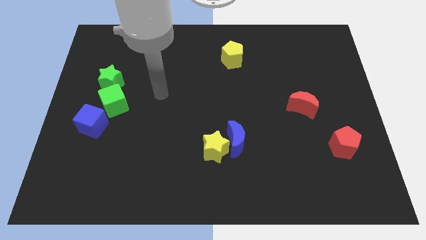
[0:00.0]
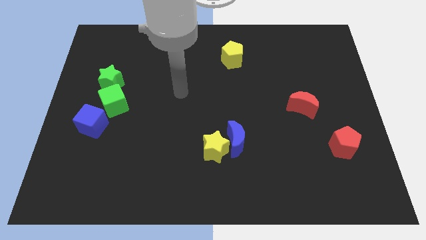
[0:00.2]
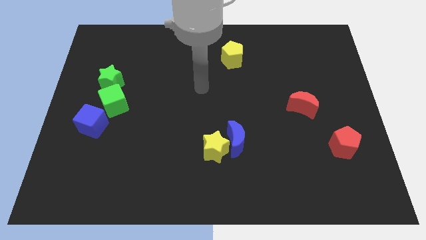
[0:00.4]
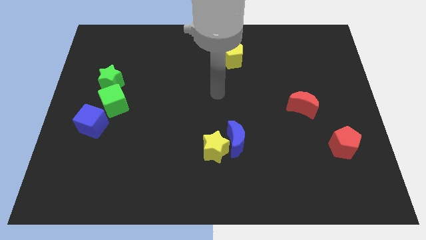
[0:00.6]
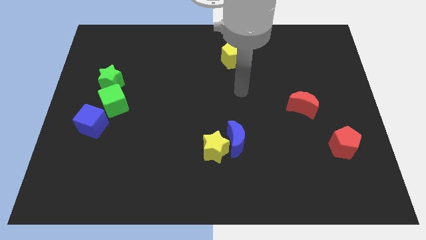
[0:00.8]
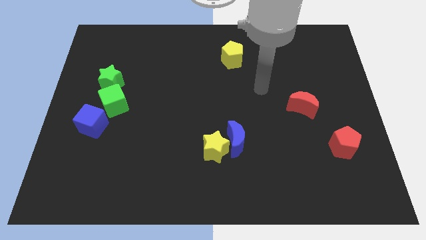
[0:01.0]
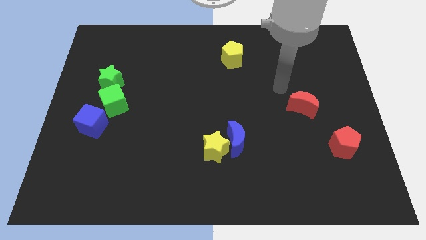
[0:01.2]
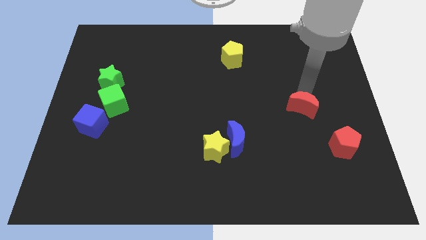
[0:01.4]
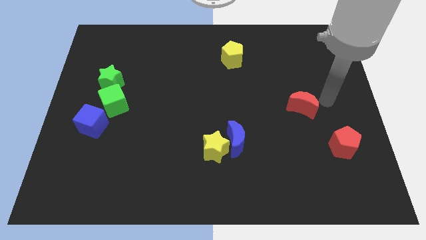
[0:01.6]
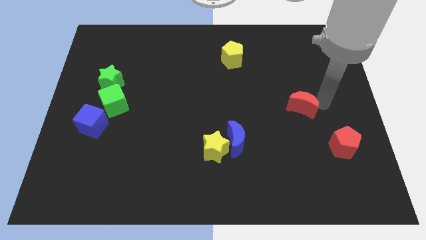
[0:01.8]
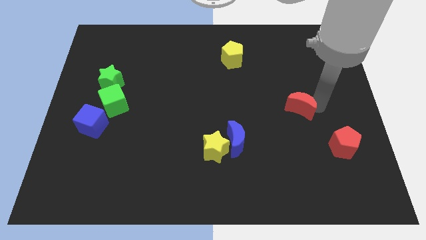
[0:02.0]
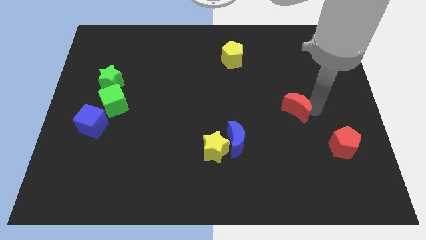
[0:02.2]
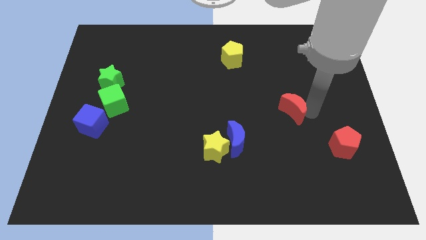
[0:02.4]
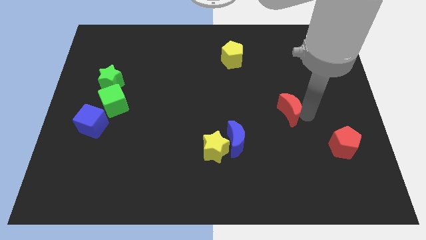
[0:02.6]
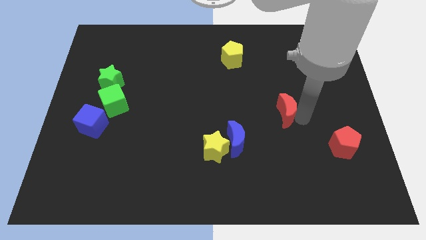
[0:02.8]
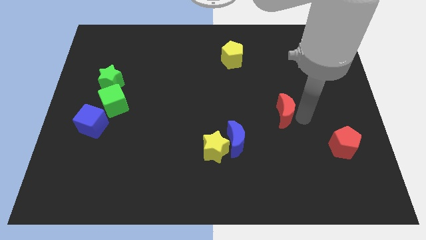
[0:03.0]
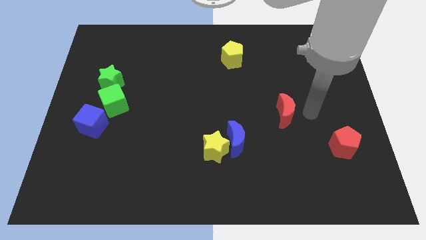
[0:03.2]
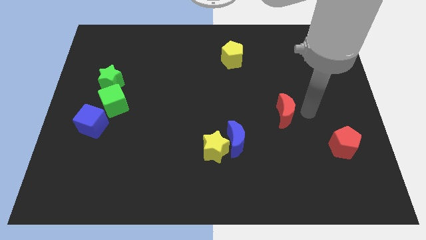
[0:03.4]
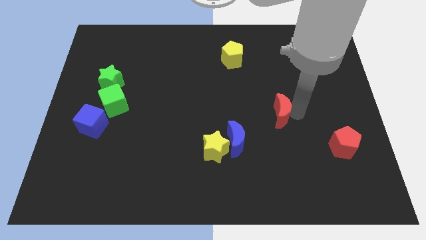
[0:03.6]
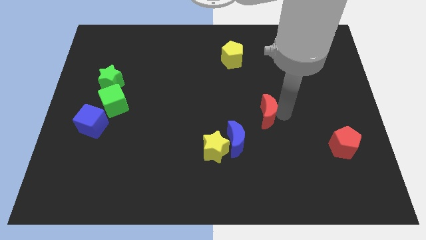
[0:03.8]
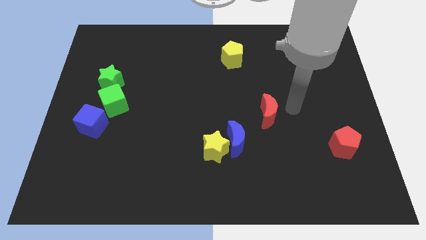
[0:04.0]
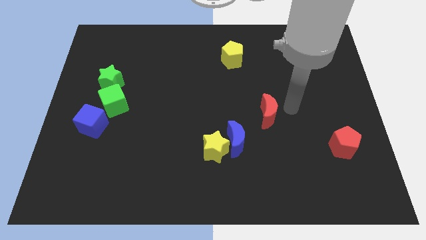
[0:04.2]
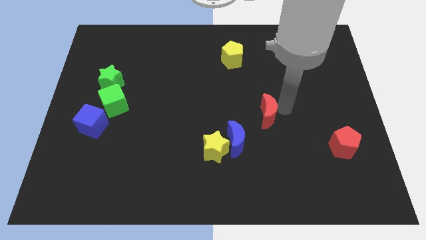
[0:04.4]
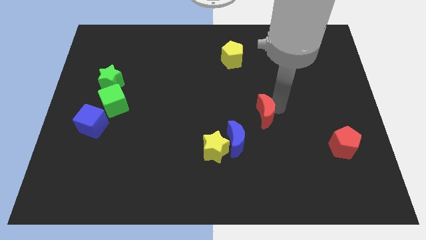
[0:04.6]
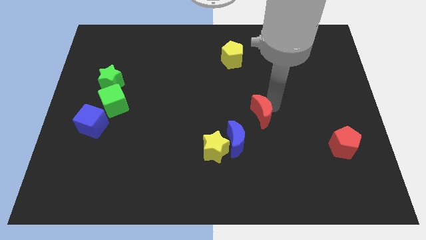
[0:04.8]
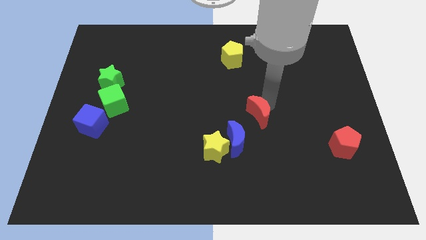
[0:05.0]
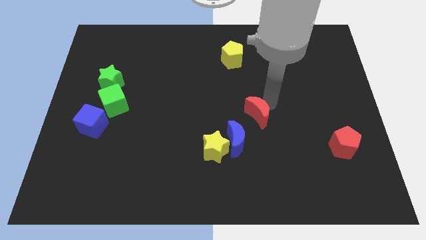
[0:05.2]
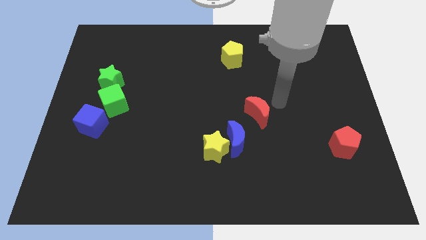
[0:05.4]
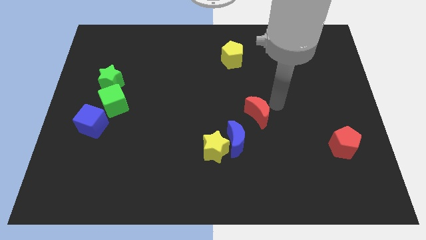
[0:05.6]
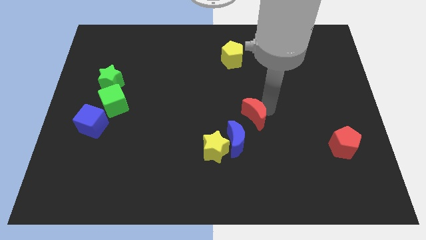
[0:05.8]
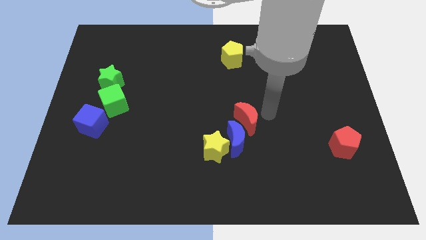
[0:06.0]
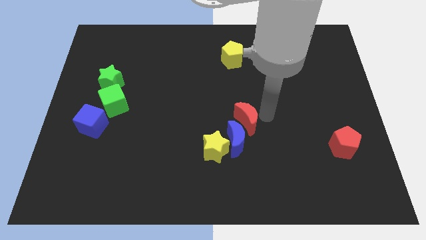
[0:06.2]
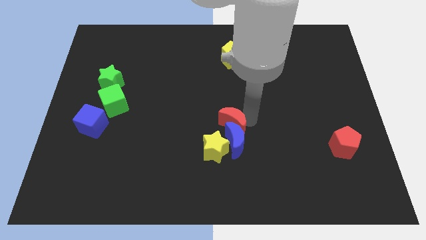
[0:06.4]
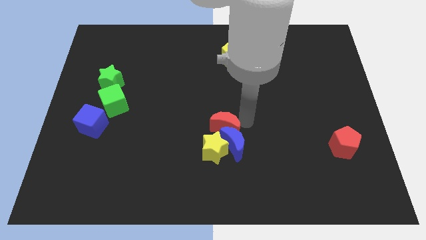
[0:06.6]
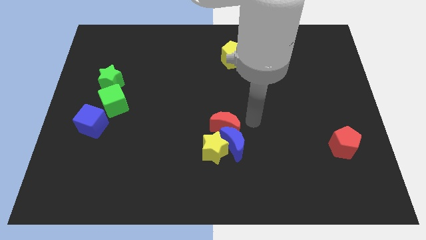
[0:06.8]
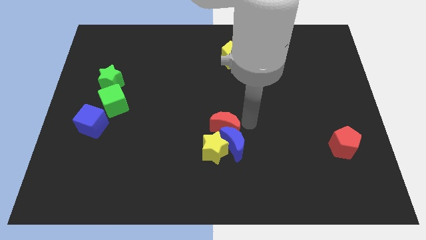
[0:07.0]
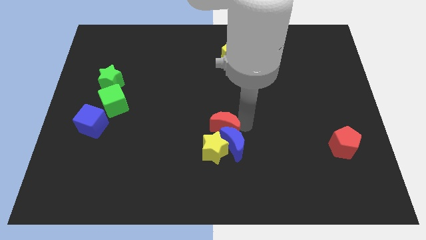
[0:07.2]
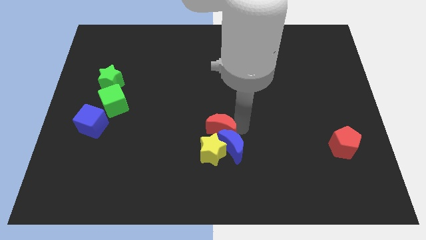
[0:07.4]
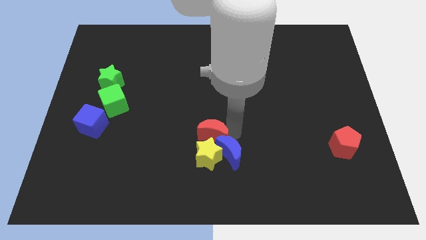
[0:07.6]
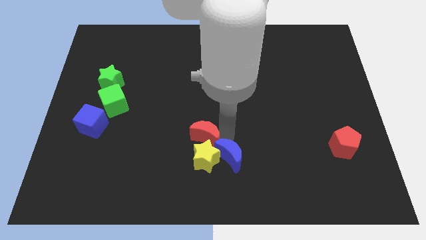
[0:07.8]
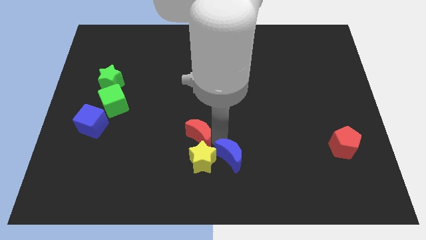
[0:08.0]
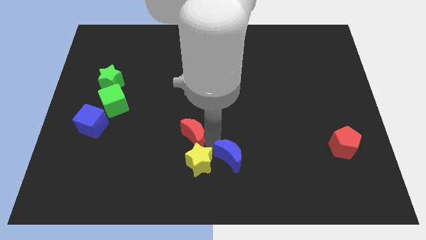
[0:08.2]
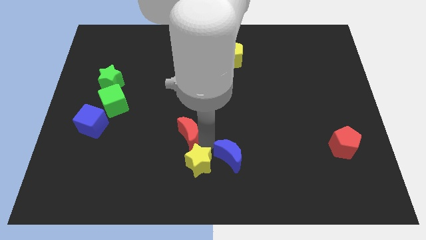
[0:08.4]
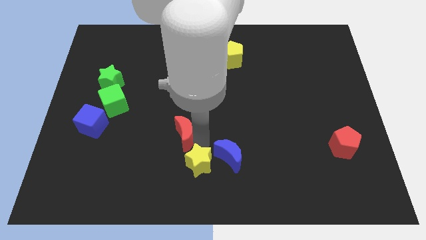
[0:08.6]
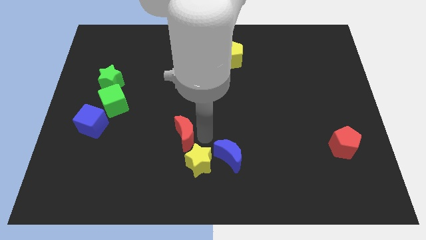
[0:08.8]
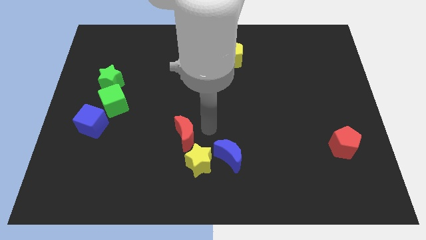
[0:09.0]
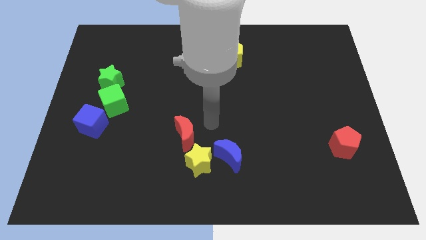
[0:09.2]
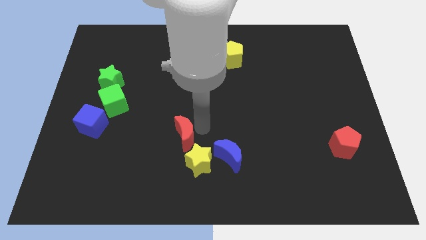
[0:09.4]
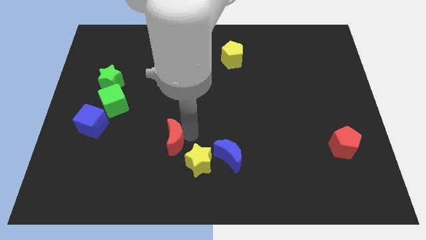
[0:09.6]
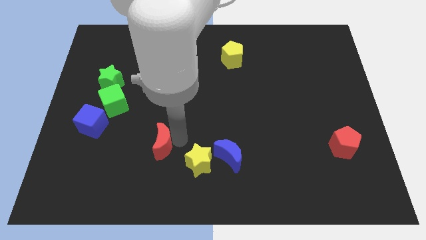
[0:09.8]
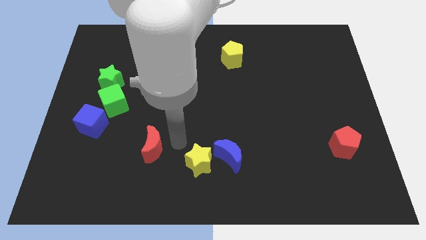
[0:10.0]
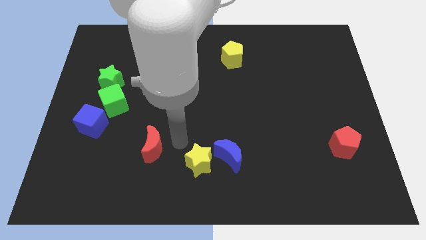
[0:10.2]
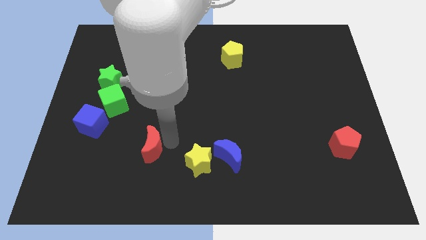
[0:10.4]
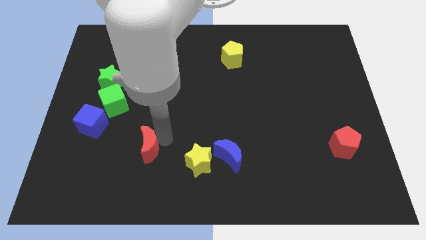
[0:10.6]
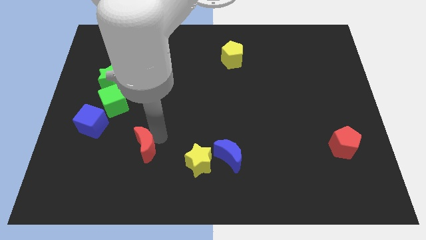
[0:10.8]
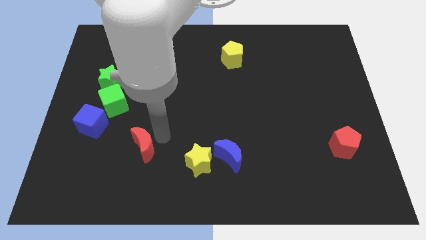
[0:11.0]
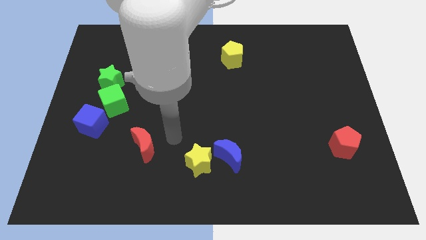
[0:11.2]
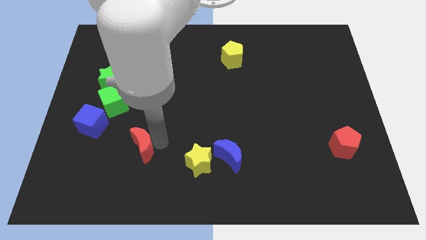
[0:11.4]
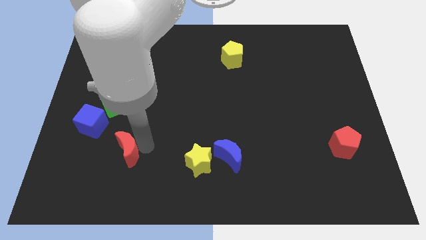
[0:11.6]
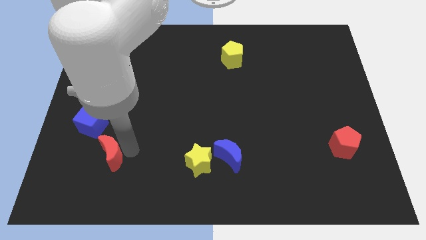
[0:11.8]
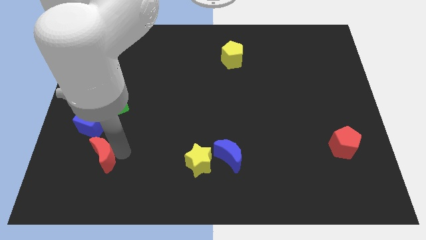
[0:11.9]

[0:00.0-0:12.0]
put the red moon below the blue cube

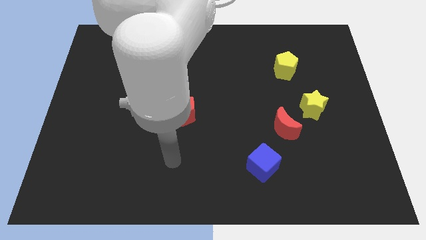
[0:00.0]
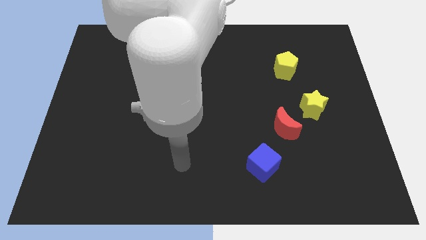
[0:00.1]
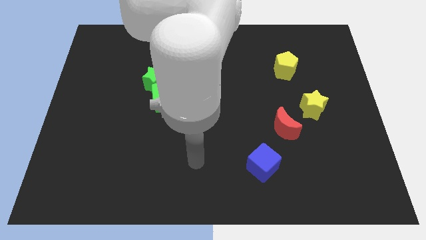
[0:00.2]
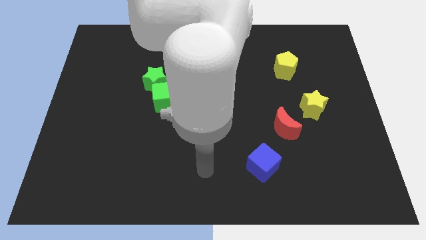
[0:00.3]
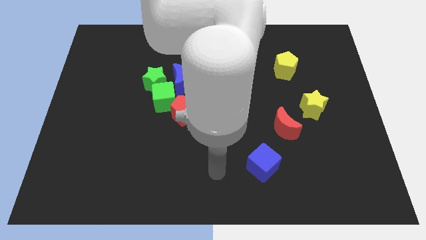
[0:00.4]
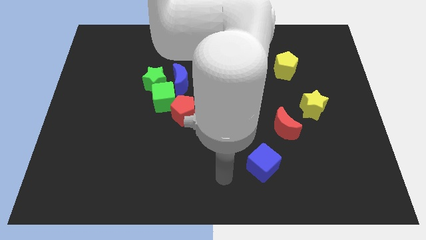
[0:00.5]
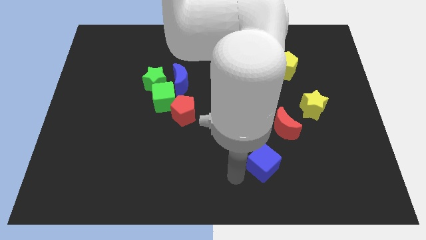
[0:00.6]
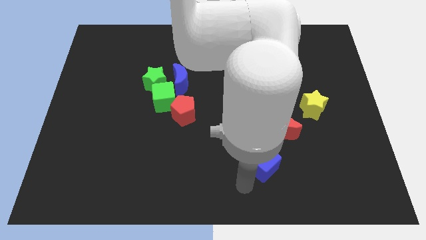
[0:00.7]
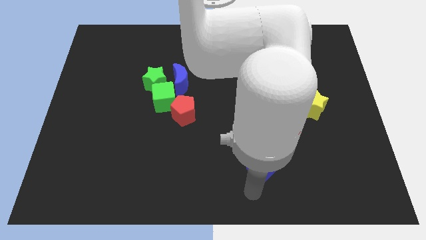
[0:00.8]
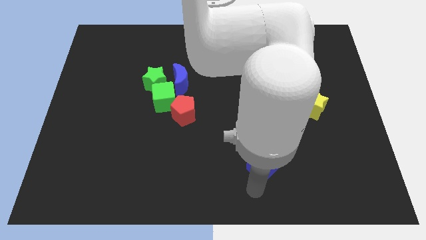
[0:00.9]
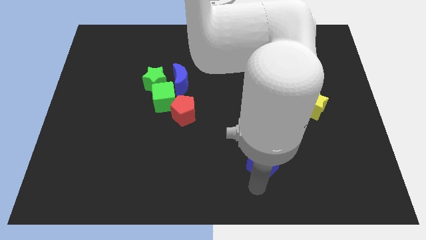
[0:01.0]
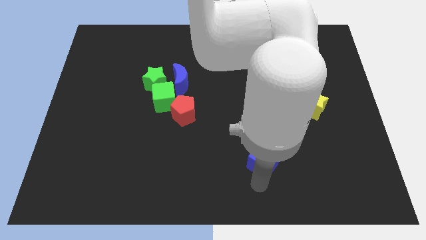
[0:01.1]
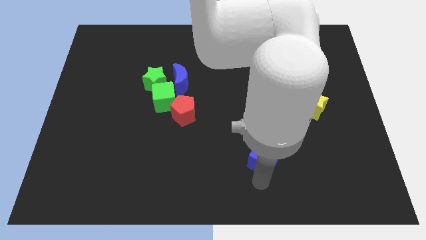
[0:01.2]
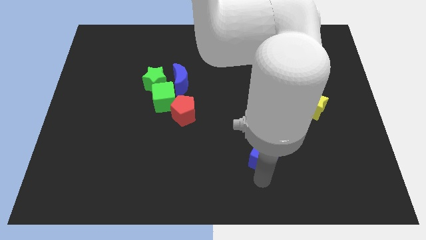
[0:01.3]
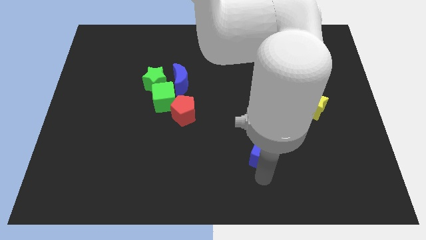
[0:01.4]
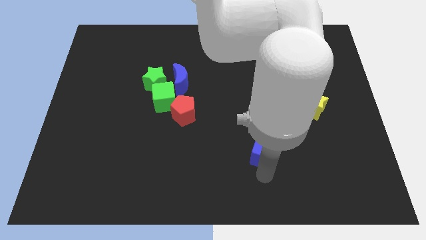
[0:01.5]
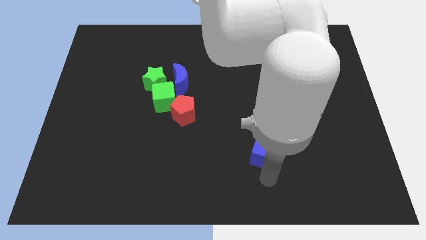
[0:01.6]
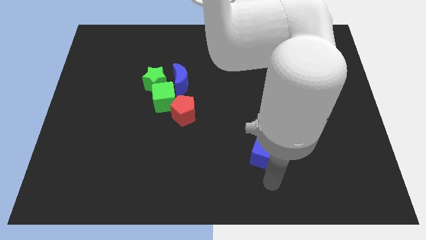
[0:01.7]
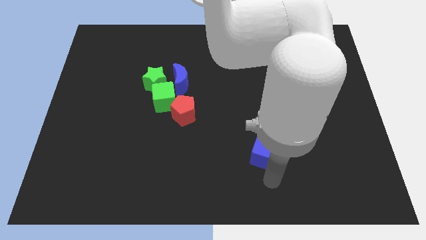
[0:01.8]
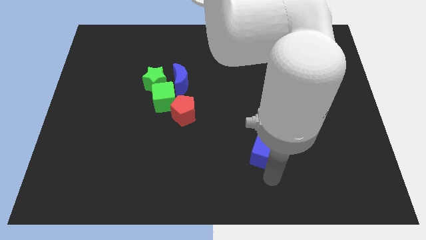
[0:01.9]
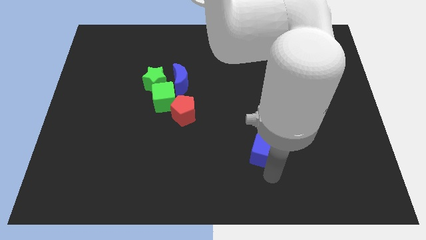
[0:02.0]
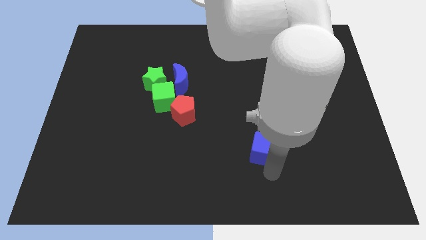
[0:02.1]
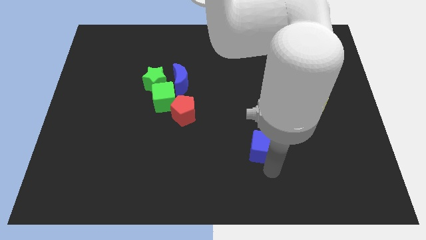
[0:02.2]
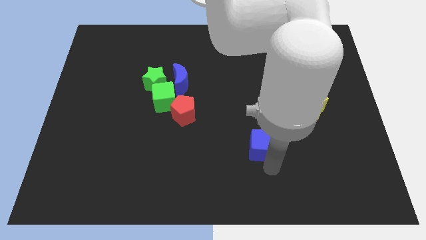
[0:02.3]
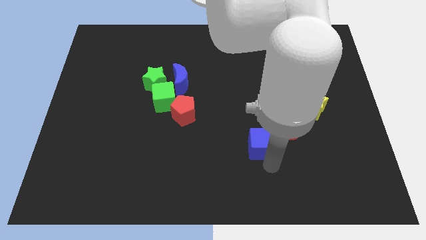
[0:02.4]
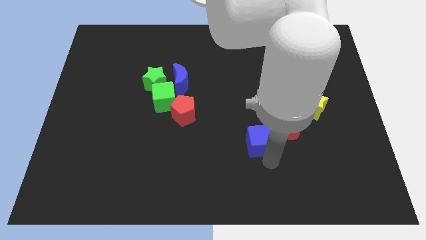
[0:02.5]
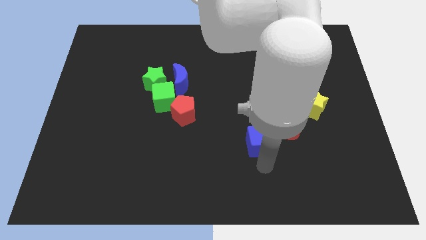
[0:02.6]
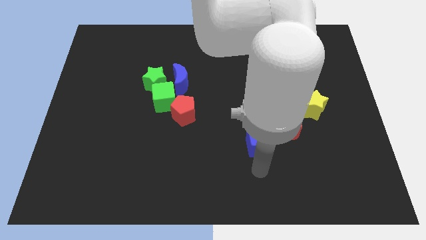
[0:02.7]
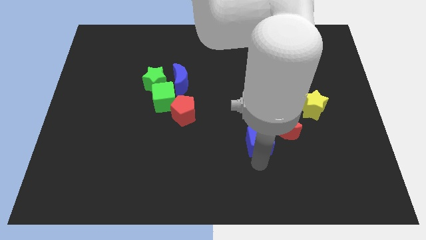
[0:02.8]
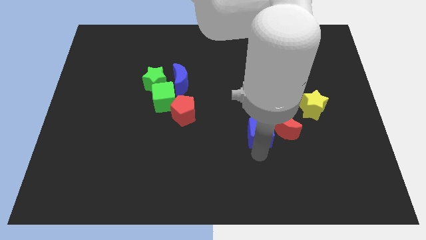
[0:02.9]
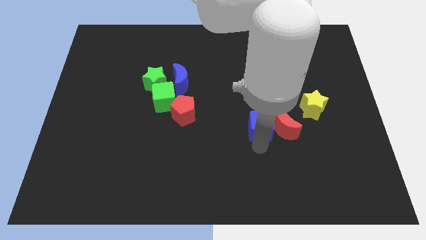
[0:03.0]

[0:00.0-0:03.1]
slide the blue cube to the top left side of the red moon
